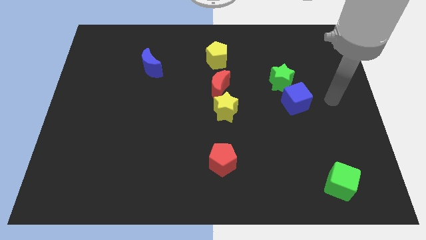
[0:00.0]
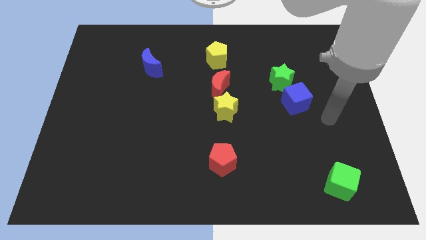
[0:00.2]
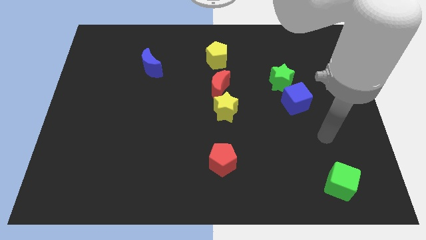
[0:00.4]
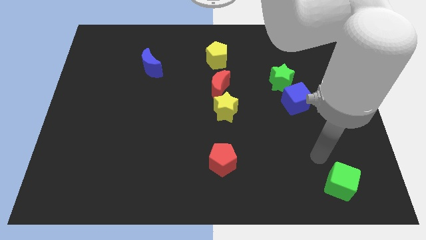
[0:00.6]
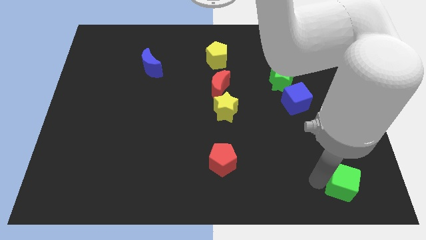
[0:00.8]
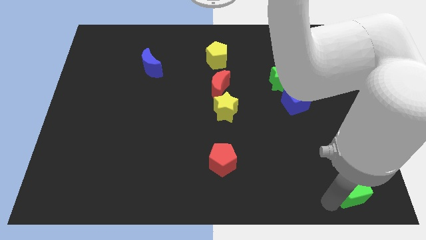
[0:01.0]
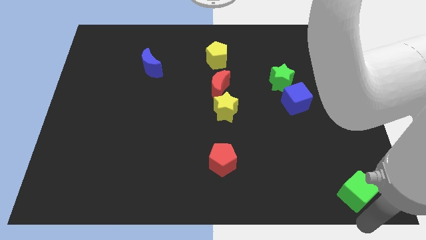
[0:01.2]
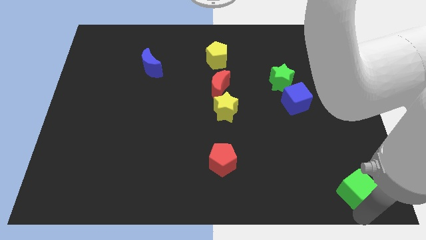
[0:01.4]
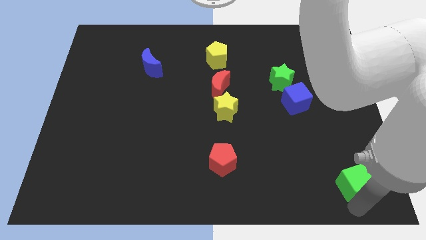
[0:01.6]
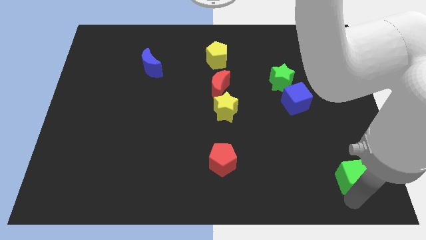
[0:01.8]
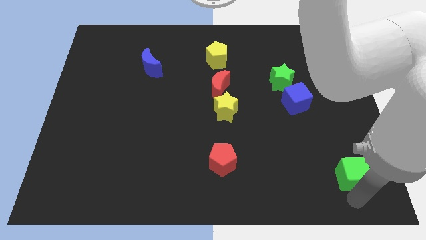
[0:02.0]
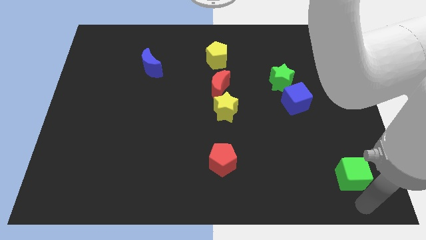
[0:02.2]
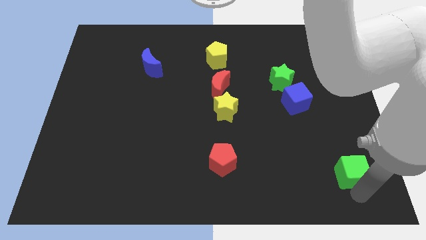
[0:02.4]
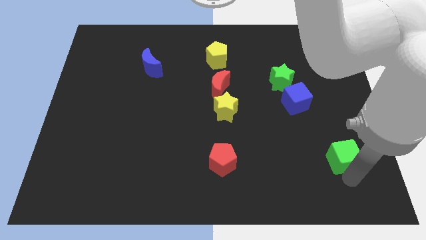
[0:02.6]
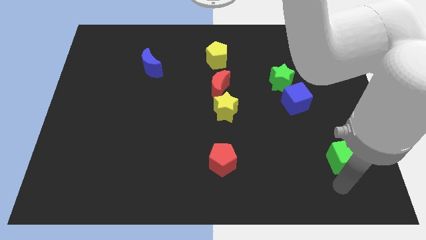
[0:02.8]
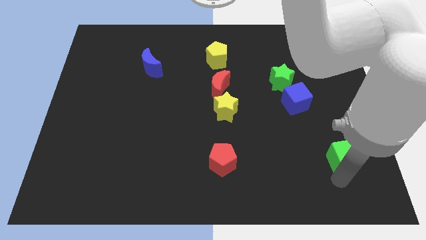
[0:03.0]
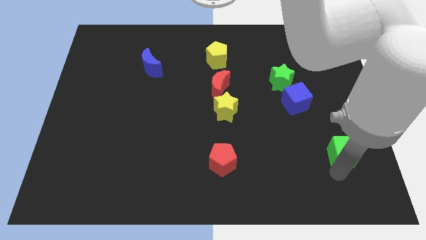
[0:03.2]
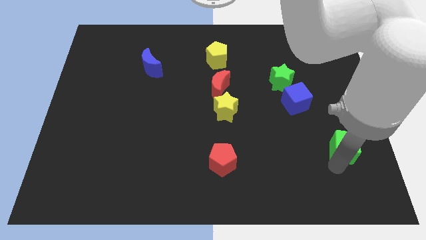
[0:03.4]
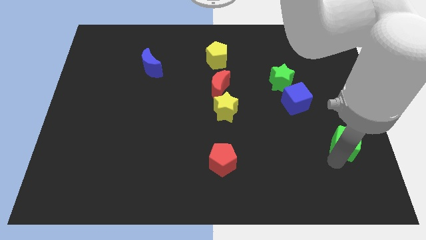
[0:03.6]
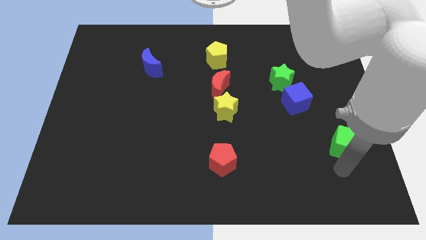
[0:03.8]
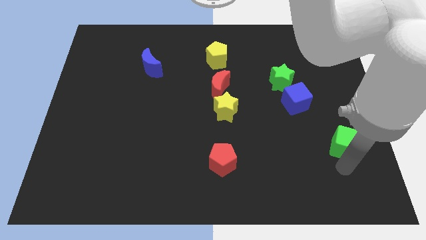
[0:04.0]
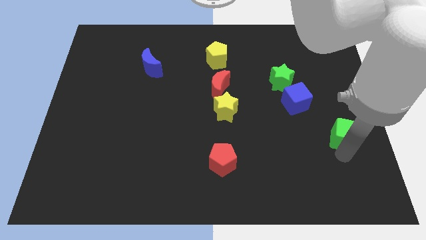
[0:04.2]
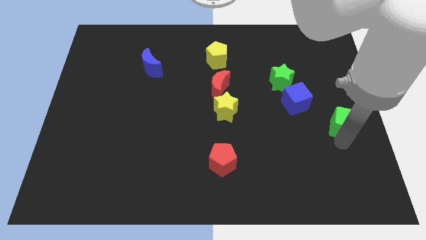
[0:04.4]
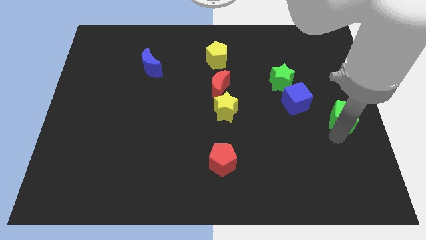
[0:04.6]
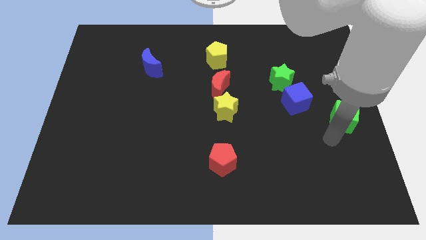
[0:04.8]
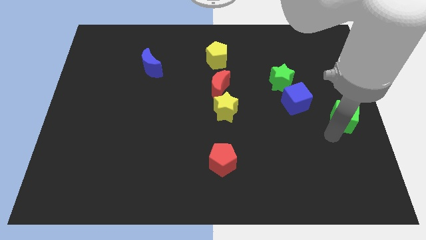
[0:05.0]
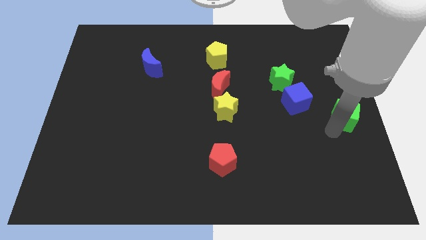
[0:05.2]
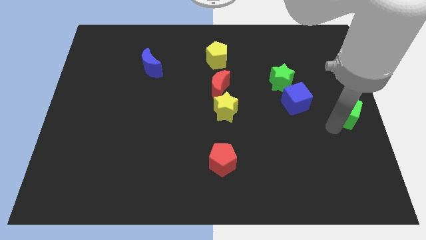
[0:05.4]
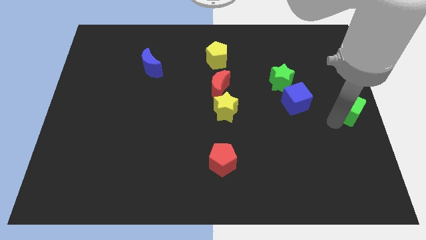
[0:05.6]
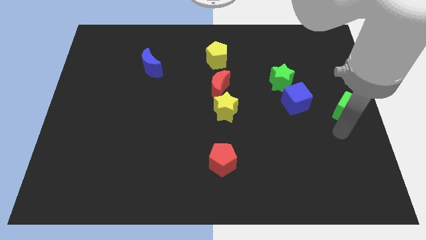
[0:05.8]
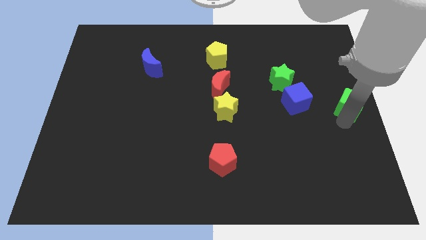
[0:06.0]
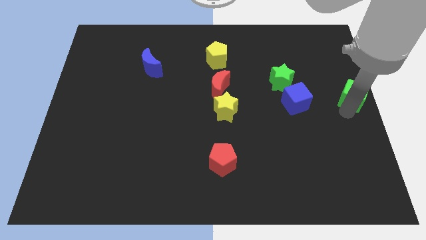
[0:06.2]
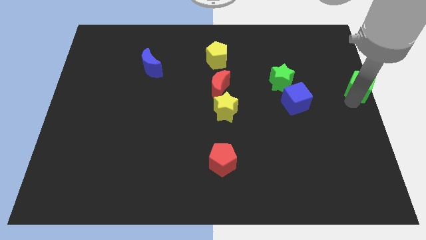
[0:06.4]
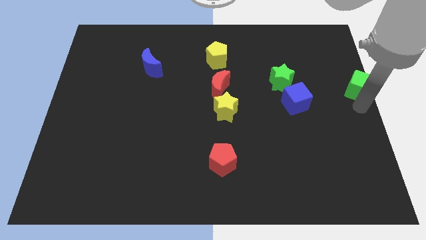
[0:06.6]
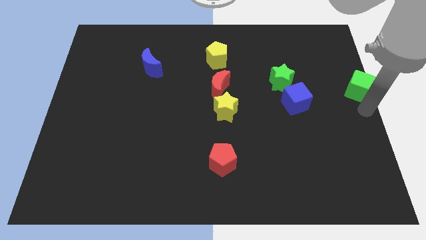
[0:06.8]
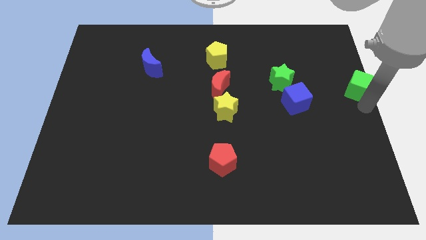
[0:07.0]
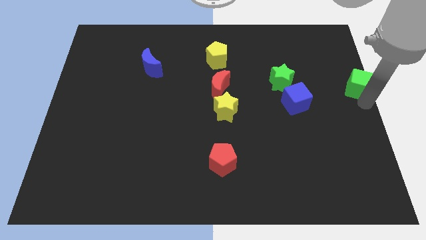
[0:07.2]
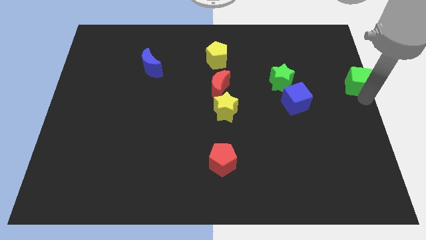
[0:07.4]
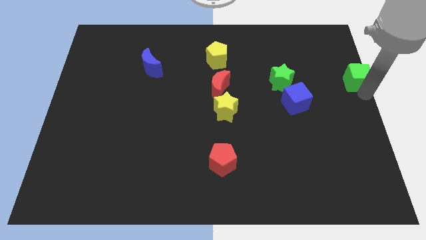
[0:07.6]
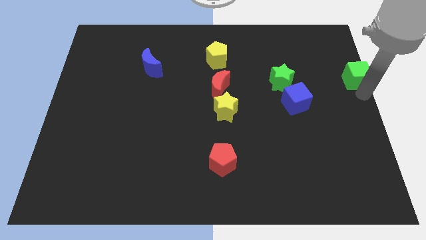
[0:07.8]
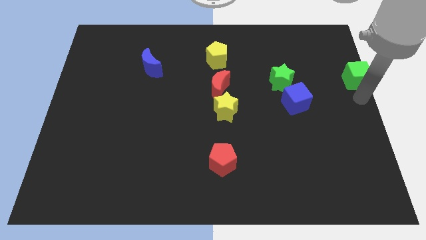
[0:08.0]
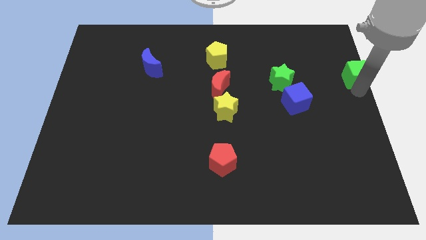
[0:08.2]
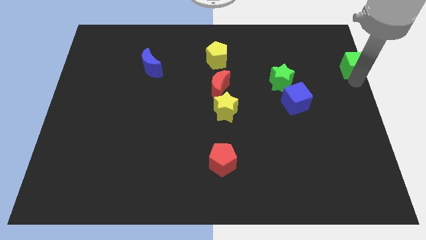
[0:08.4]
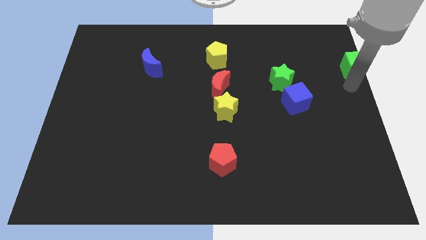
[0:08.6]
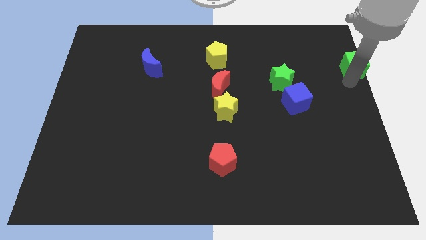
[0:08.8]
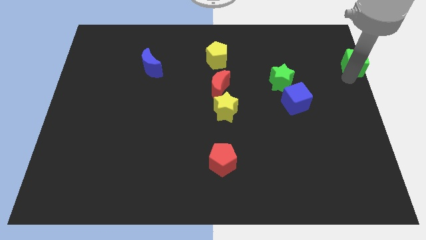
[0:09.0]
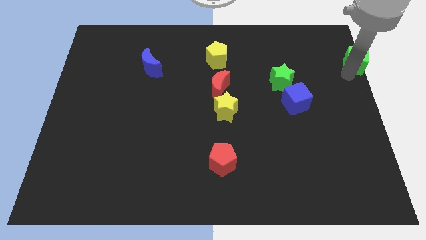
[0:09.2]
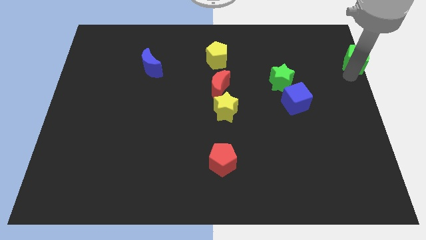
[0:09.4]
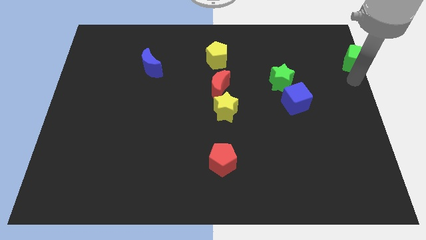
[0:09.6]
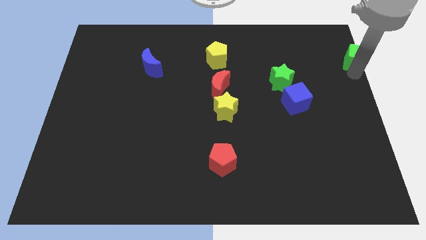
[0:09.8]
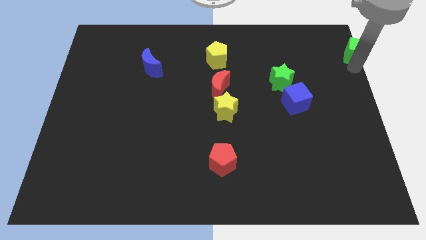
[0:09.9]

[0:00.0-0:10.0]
push the green cube to the top right corner

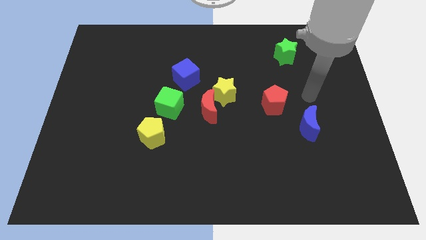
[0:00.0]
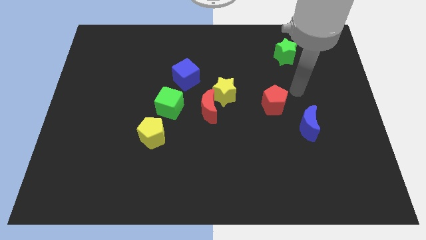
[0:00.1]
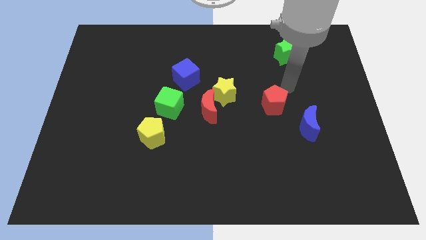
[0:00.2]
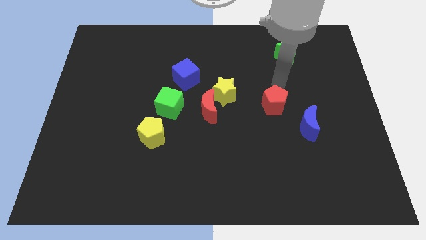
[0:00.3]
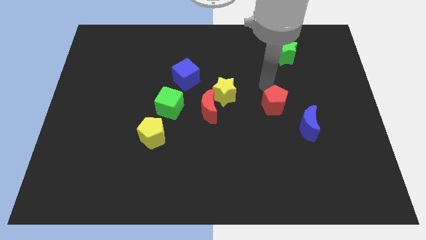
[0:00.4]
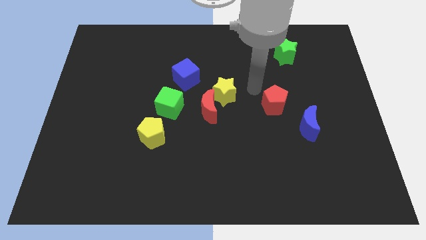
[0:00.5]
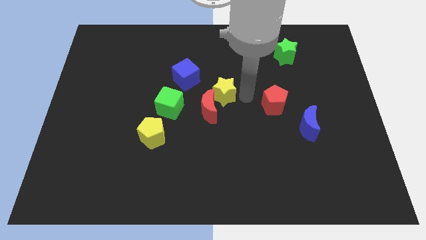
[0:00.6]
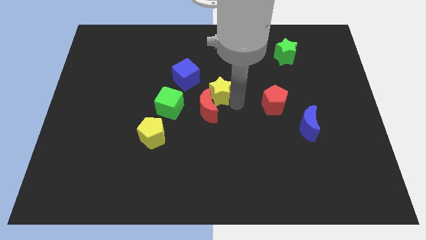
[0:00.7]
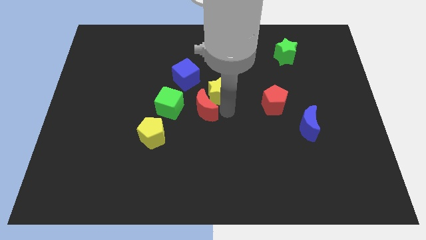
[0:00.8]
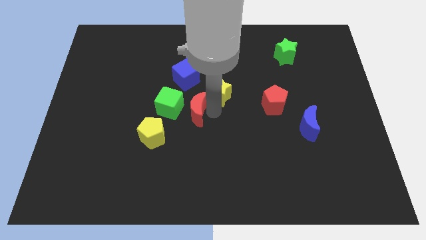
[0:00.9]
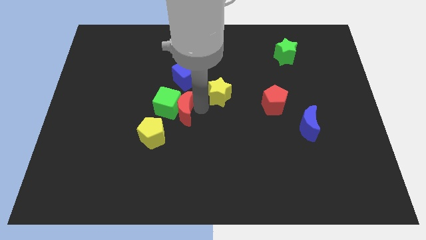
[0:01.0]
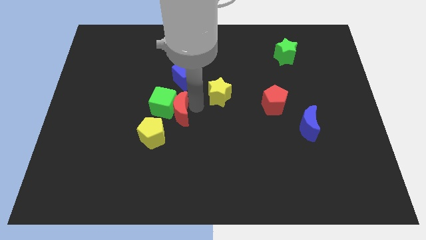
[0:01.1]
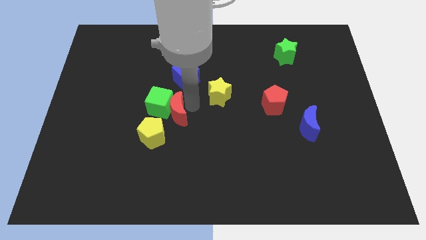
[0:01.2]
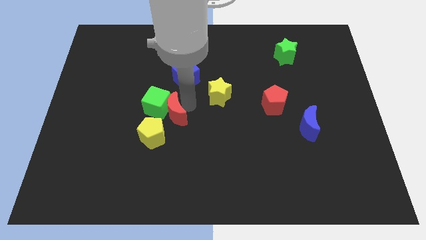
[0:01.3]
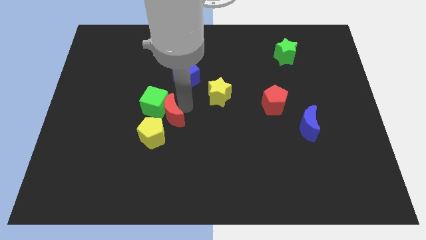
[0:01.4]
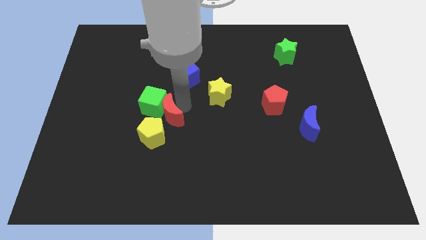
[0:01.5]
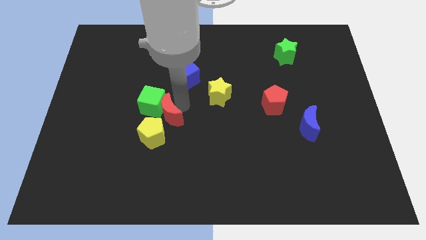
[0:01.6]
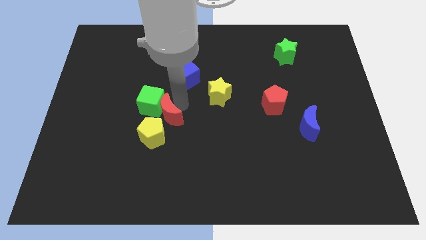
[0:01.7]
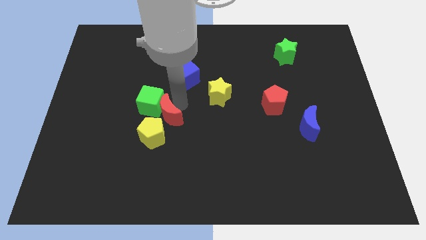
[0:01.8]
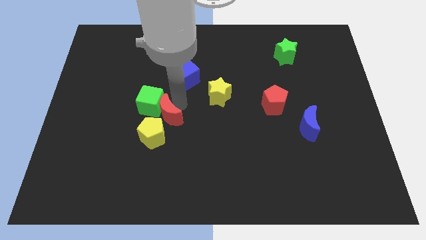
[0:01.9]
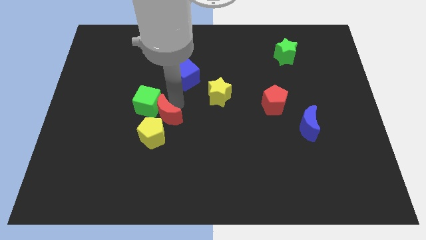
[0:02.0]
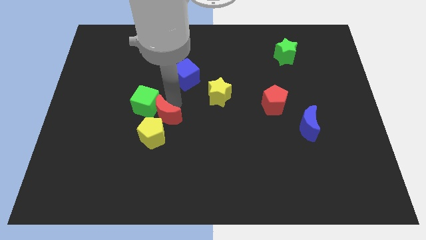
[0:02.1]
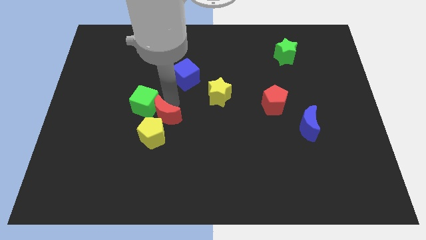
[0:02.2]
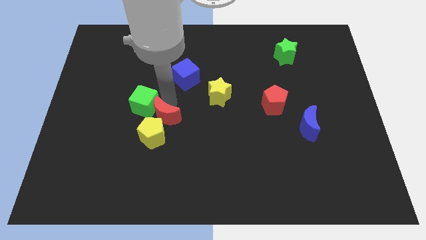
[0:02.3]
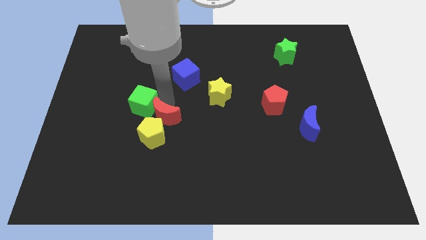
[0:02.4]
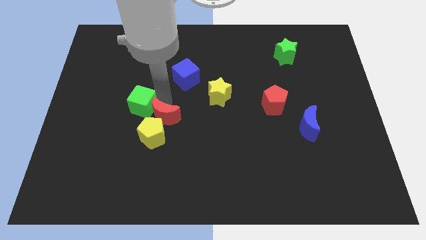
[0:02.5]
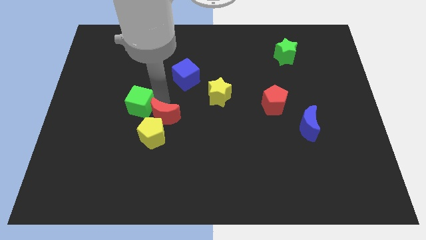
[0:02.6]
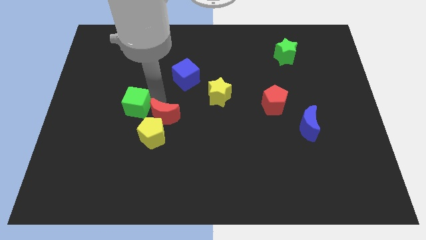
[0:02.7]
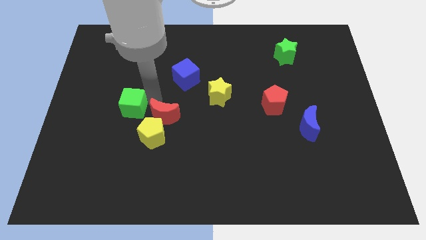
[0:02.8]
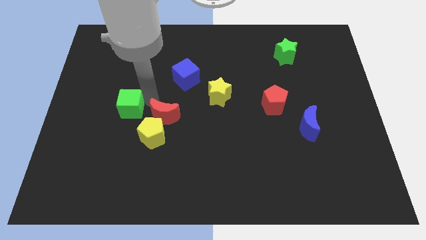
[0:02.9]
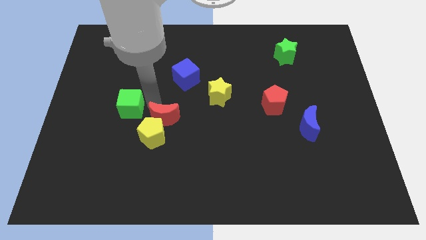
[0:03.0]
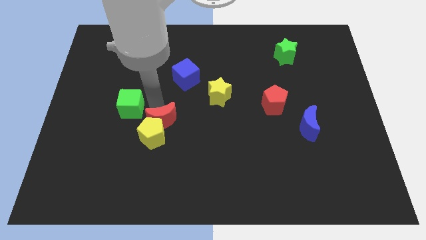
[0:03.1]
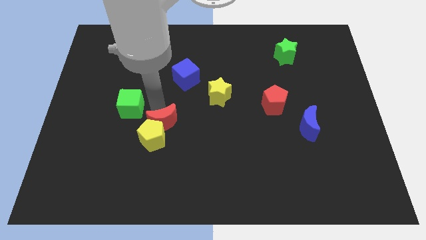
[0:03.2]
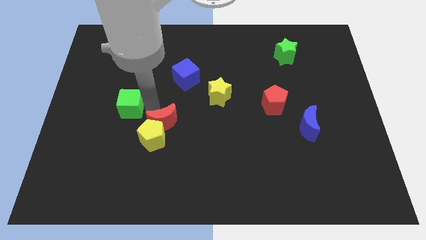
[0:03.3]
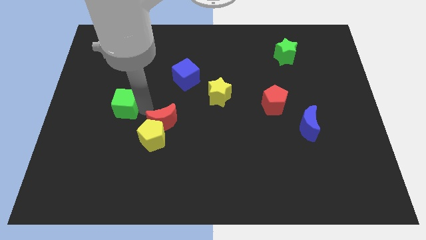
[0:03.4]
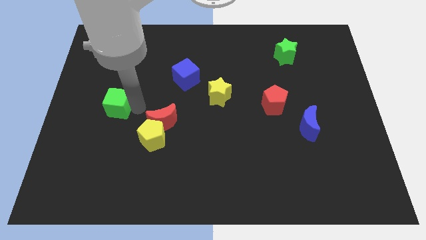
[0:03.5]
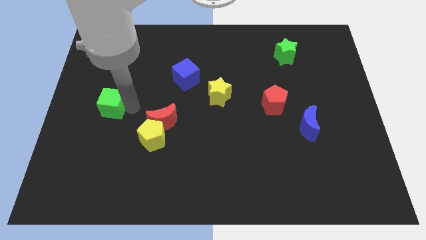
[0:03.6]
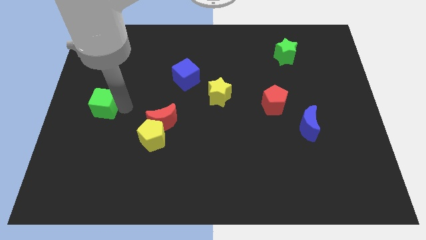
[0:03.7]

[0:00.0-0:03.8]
move the green cube to the center left
